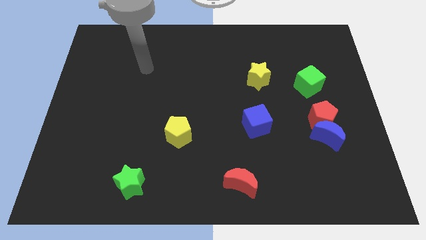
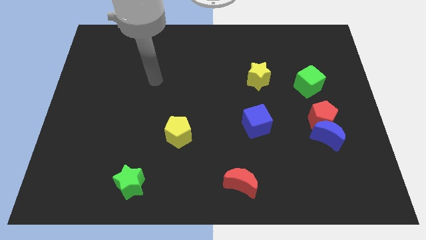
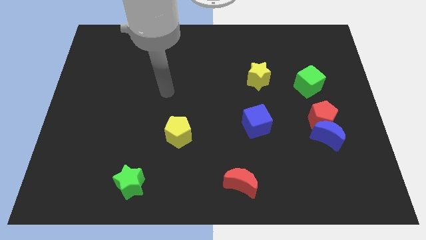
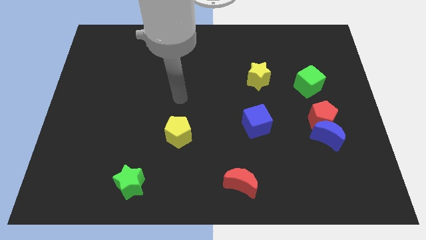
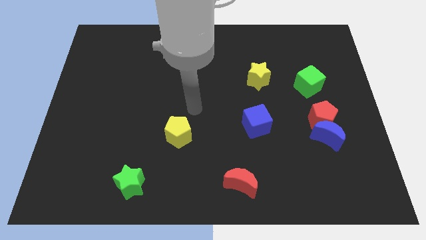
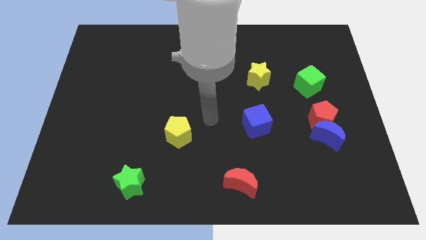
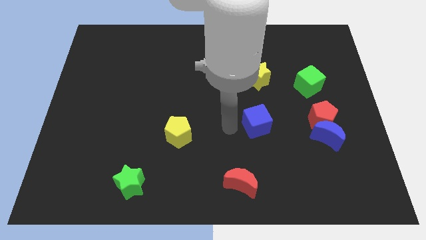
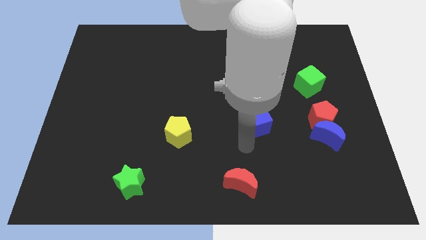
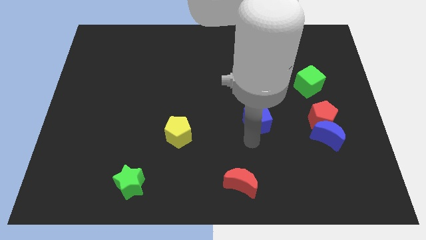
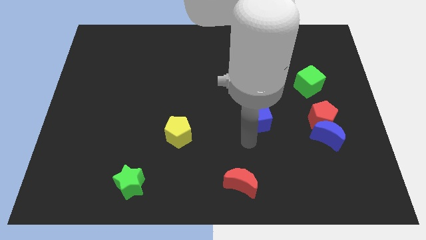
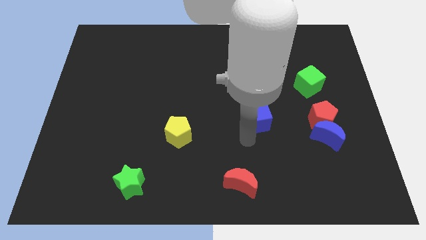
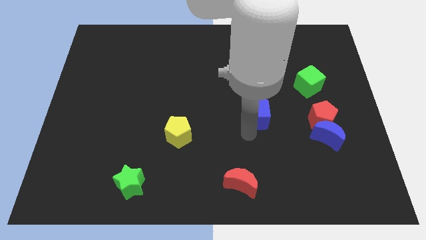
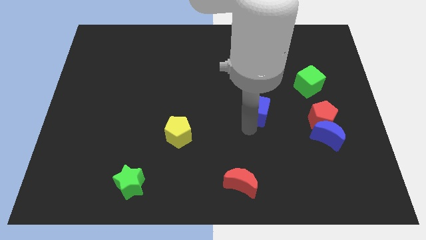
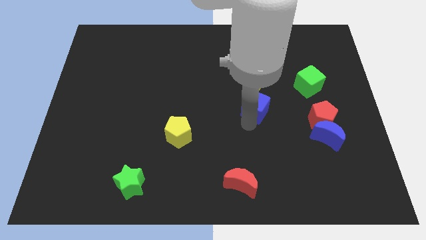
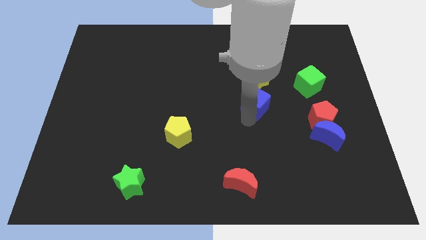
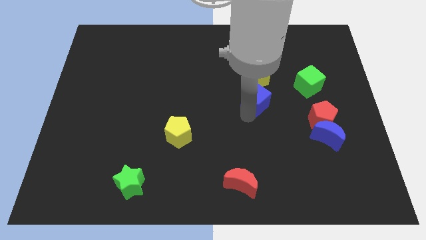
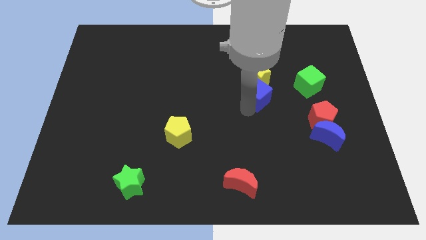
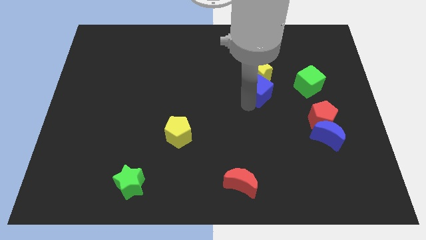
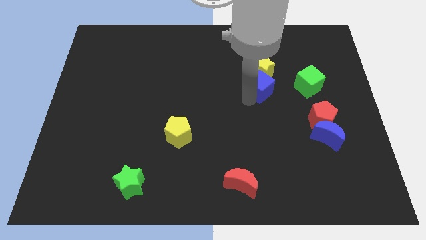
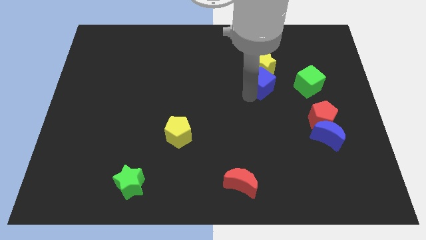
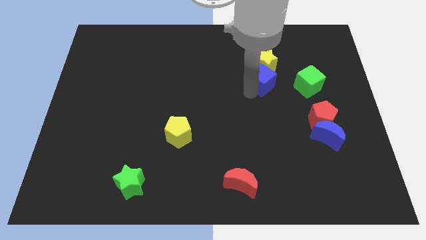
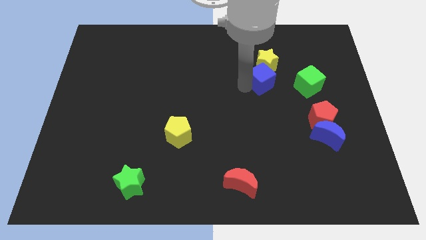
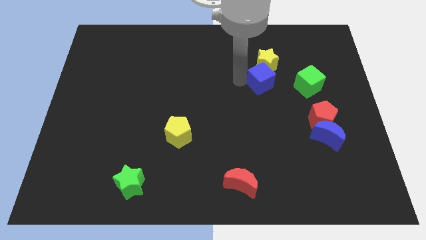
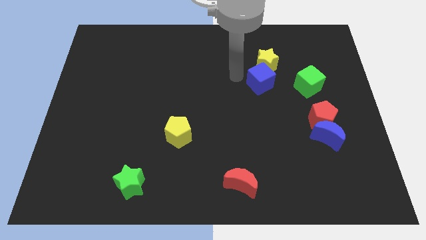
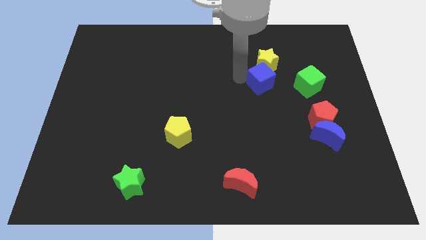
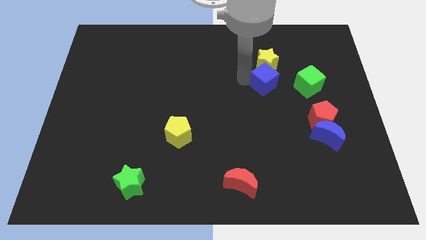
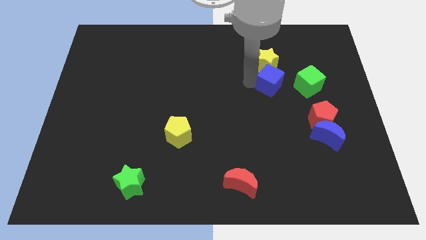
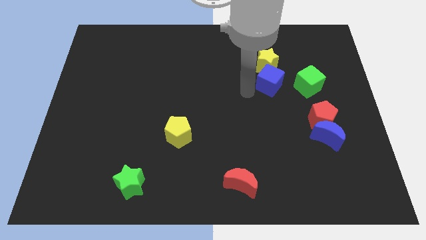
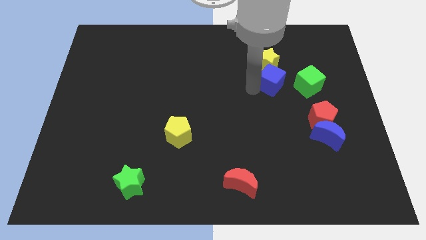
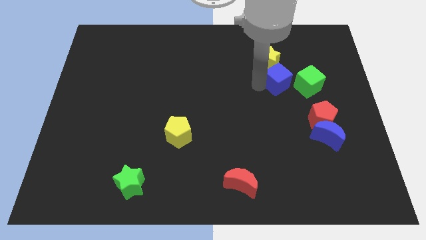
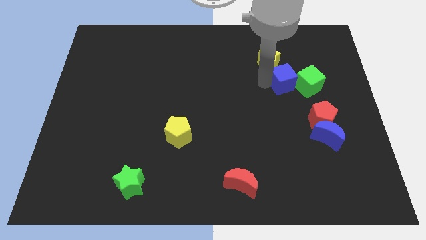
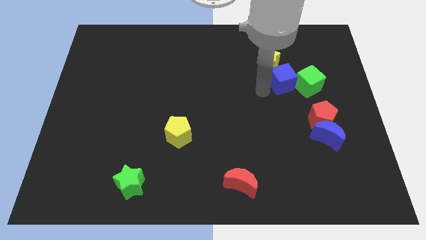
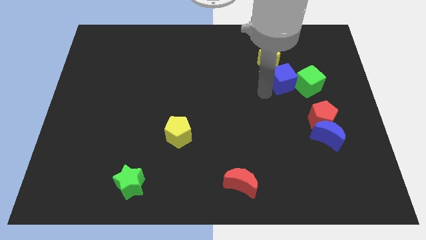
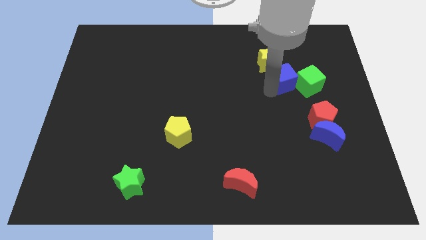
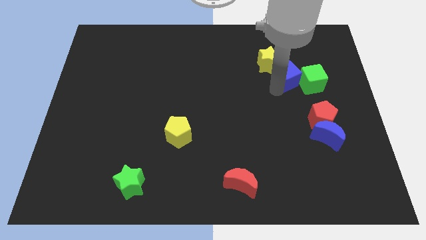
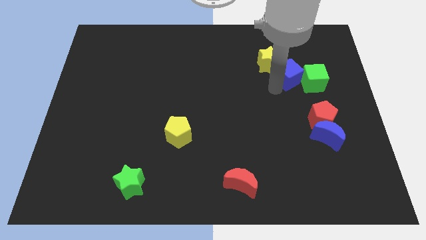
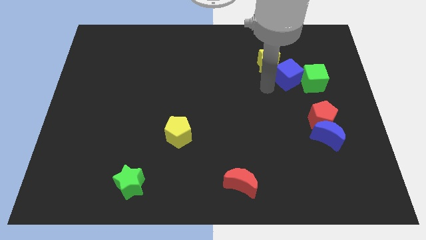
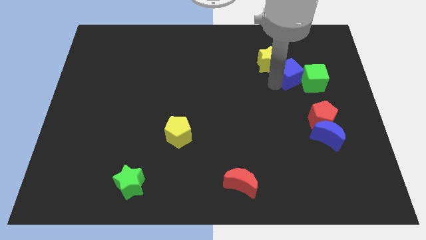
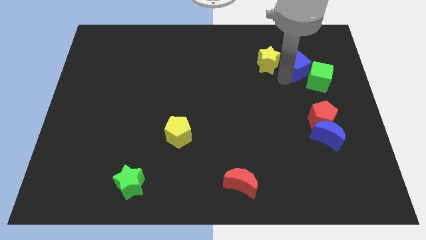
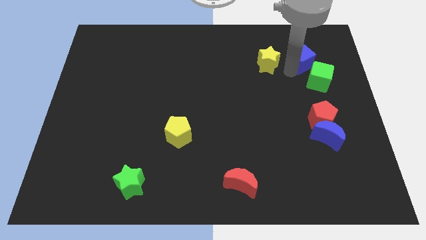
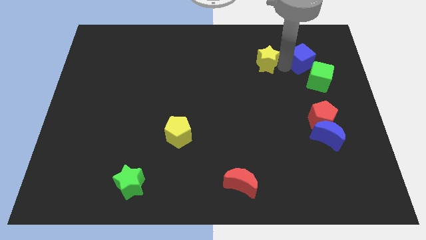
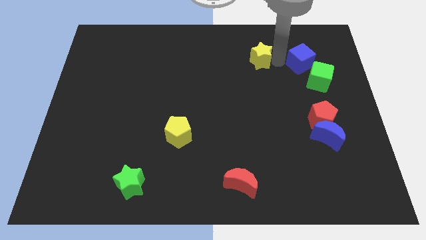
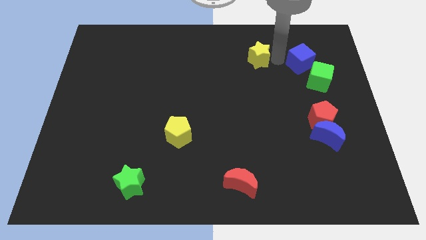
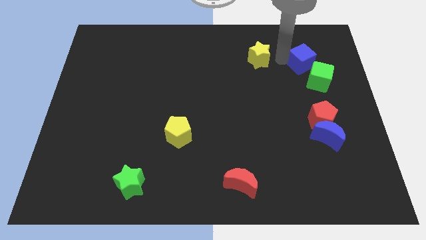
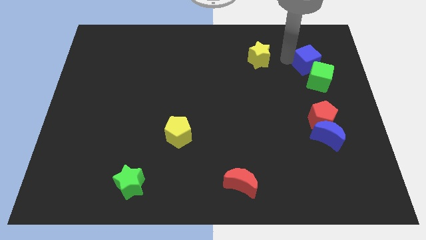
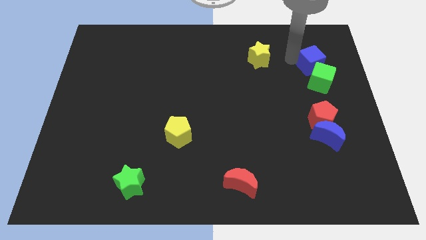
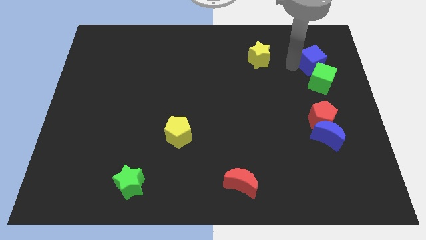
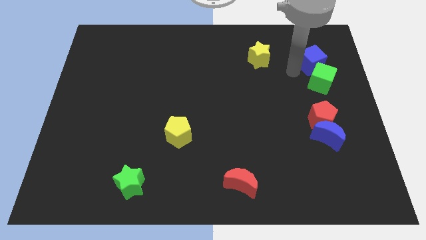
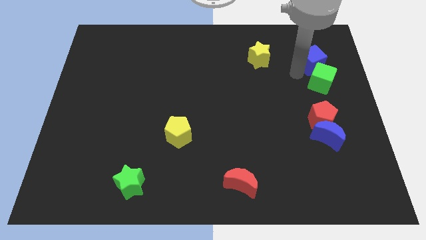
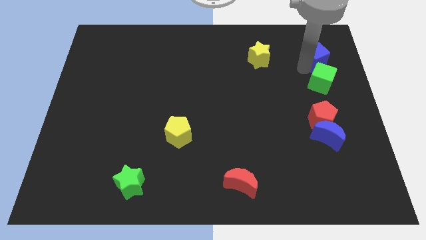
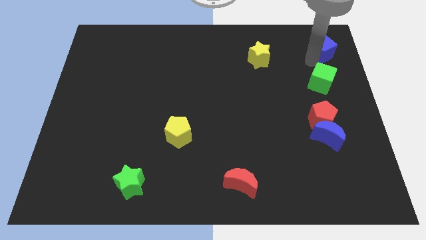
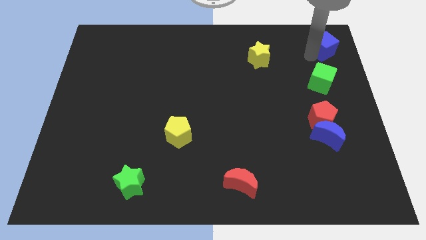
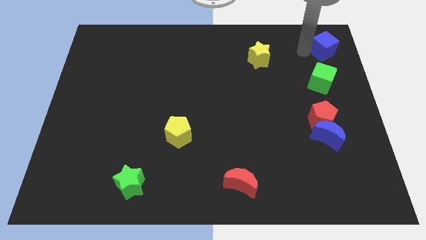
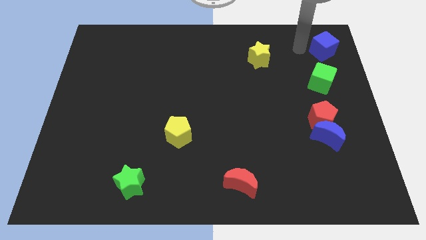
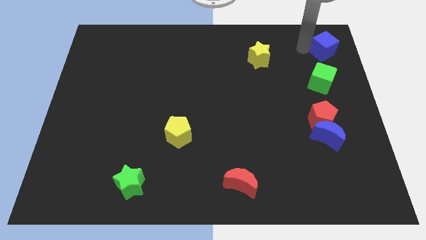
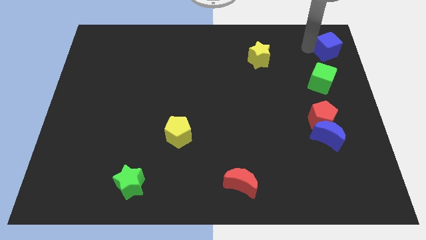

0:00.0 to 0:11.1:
put the blue cube to the top right corner

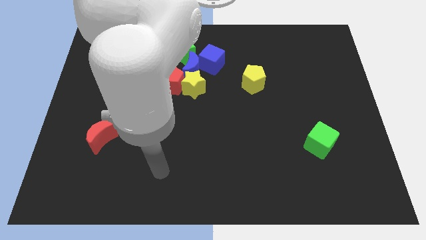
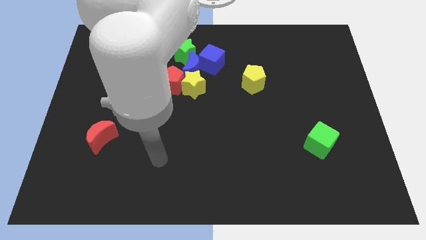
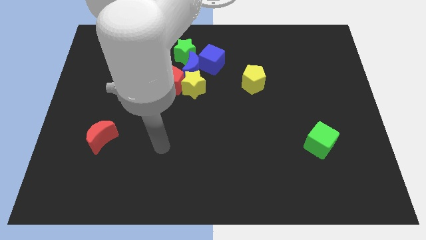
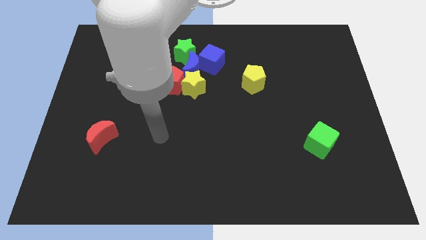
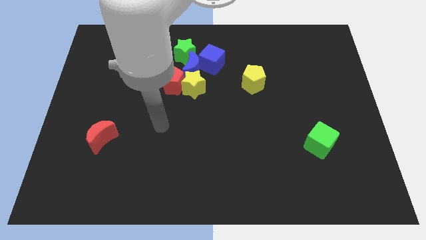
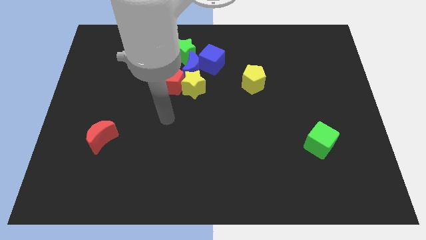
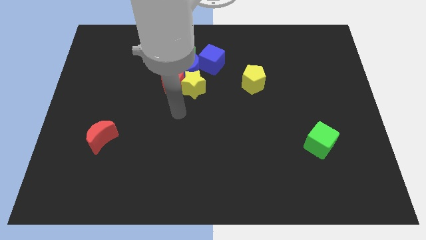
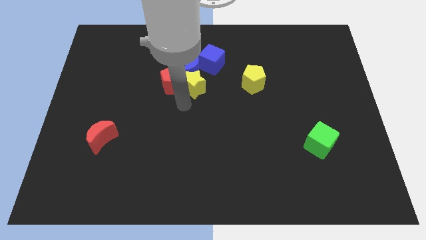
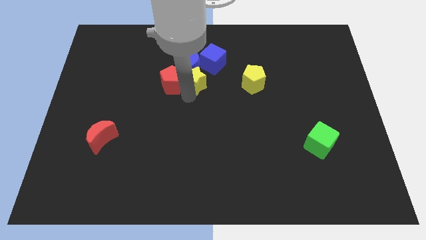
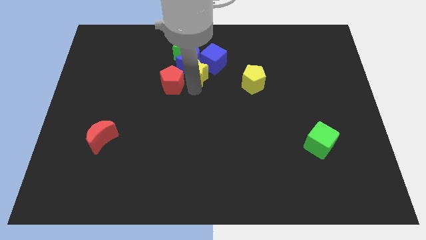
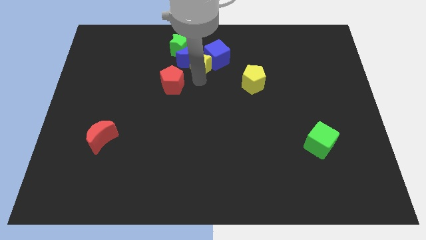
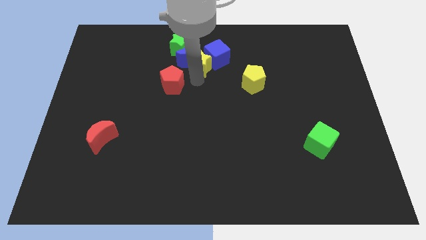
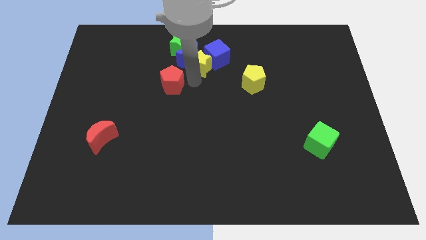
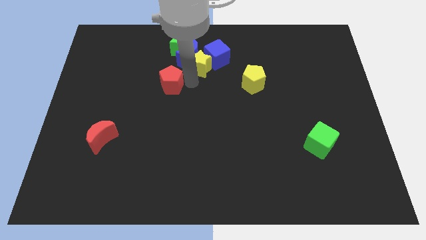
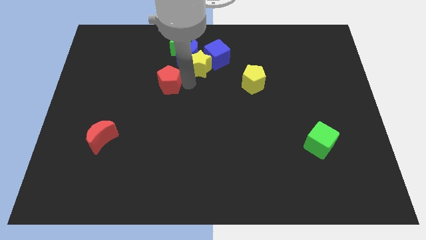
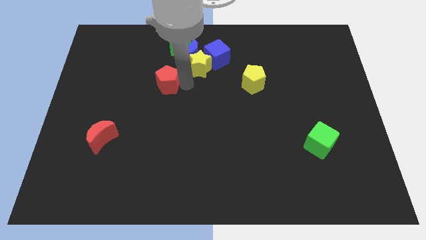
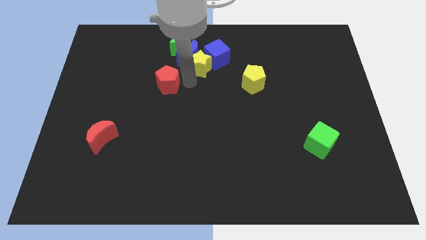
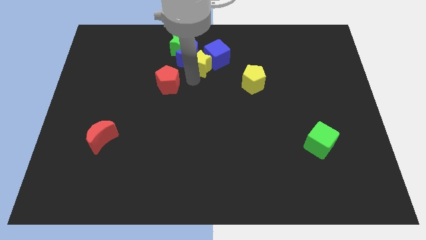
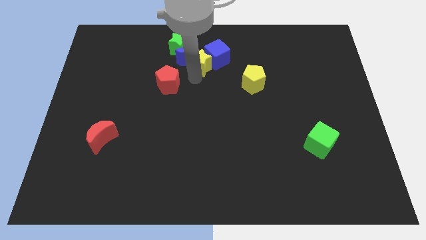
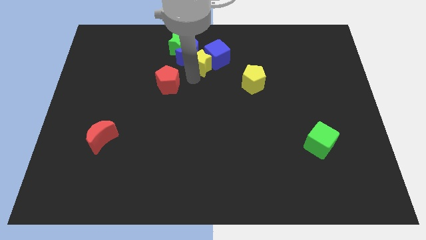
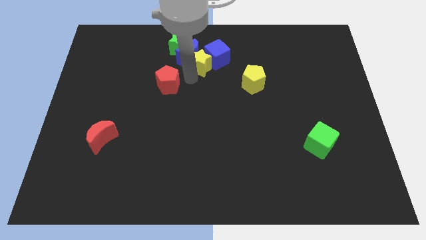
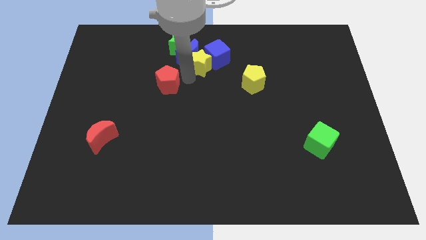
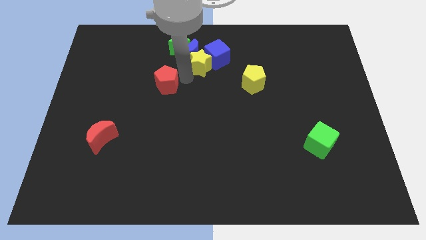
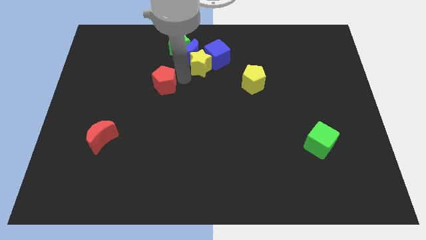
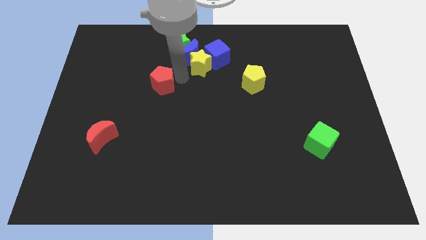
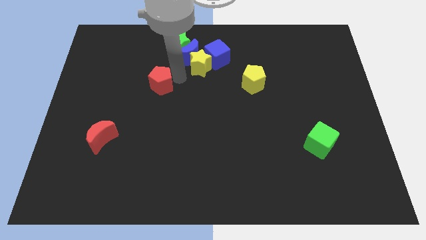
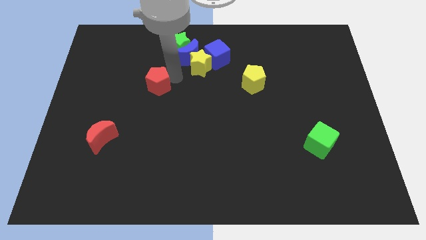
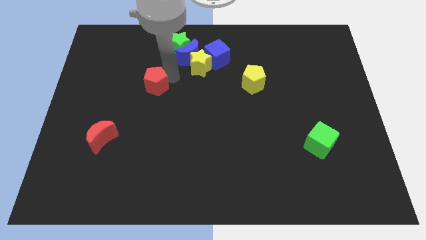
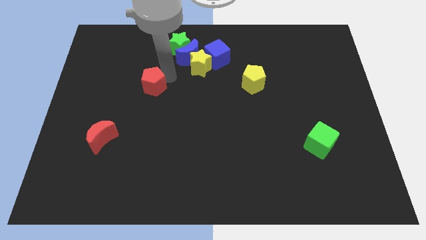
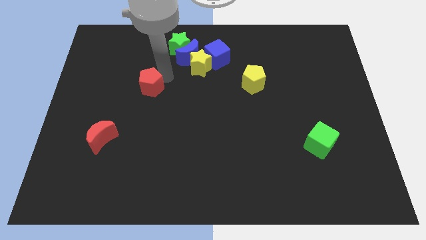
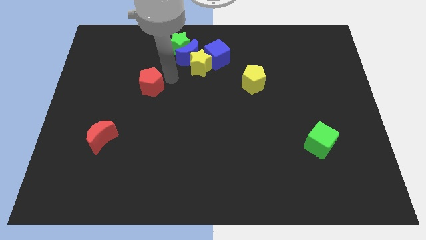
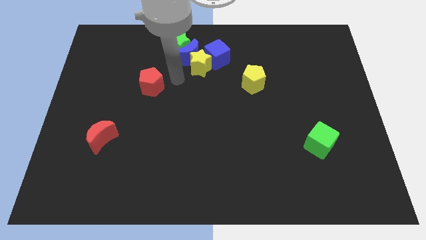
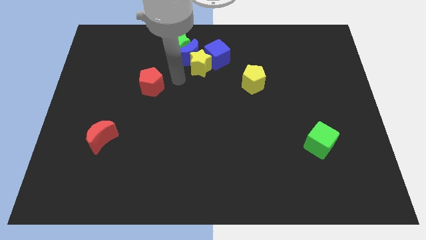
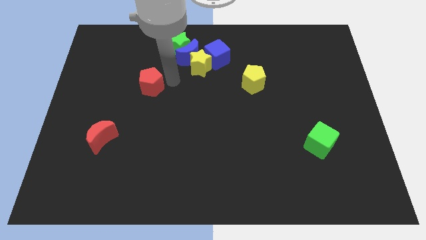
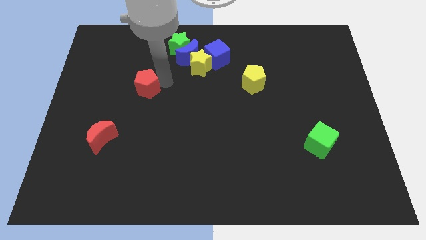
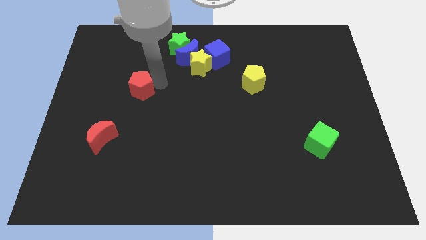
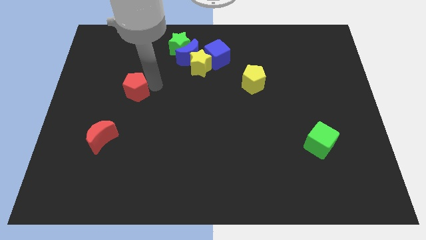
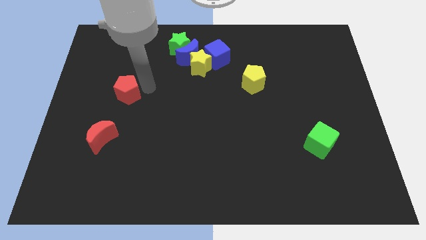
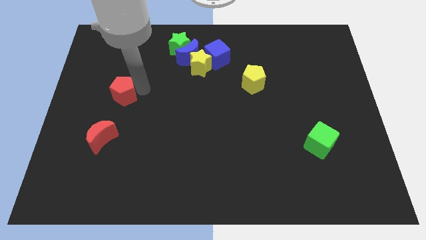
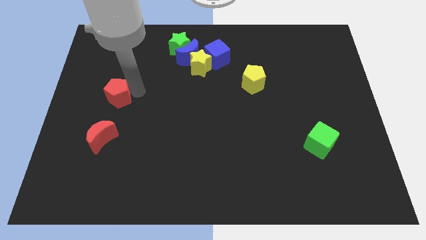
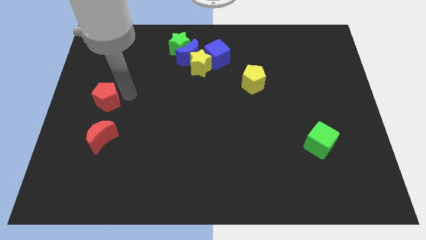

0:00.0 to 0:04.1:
put the red pentagon to the center left
